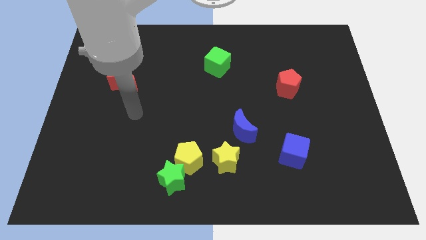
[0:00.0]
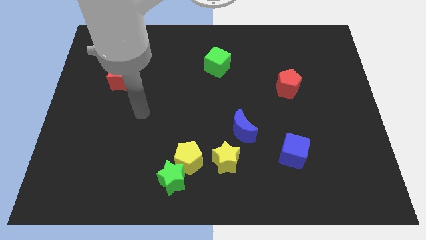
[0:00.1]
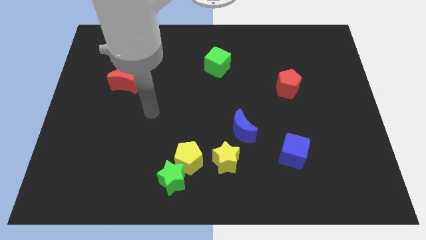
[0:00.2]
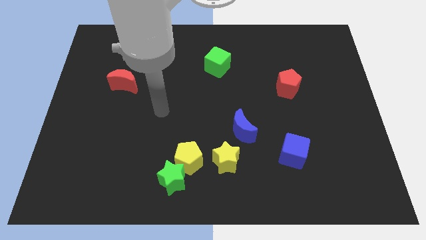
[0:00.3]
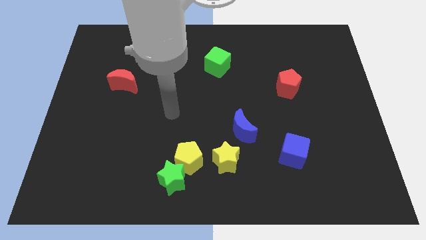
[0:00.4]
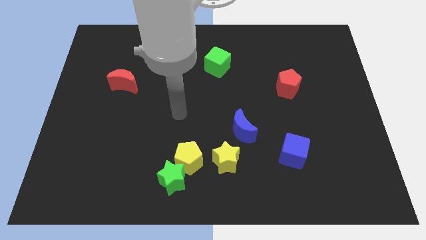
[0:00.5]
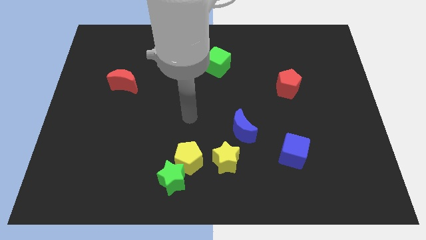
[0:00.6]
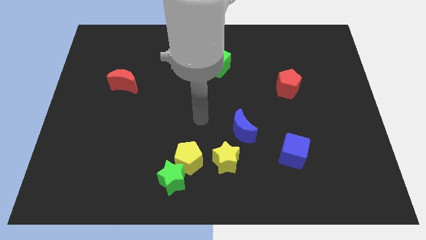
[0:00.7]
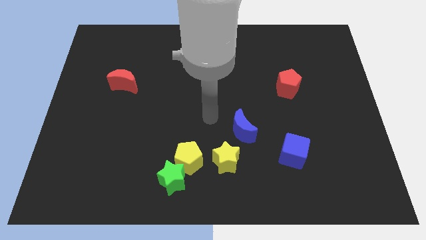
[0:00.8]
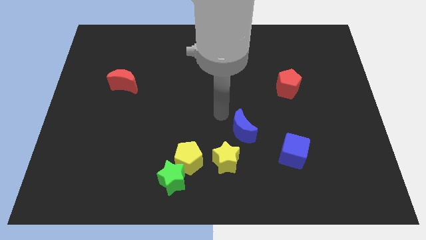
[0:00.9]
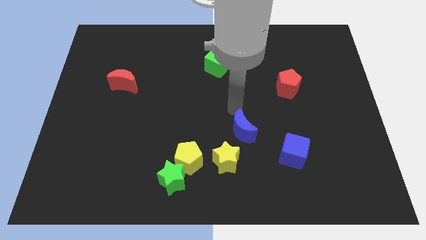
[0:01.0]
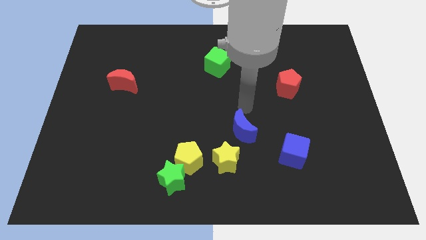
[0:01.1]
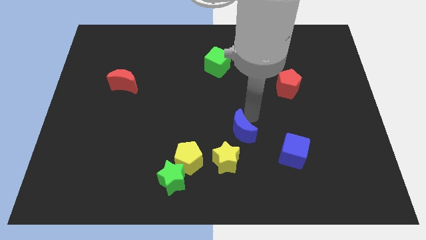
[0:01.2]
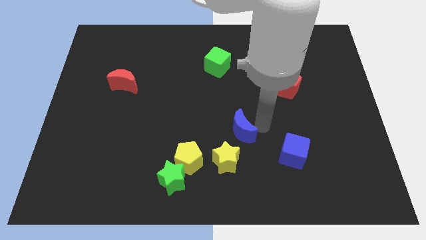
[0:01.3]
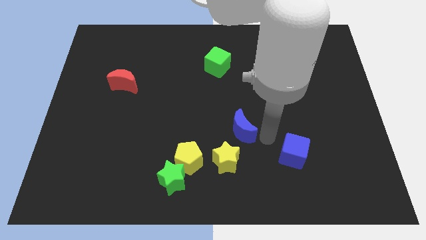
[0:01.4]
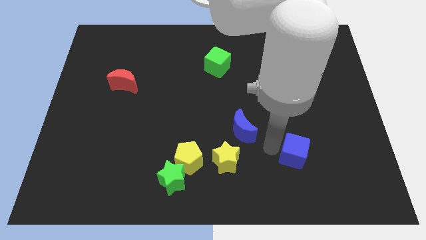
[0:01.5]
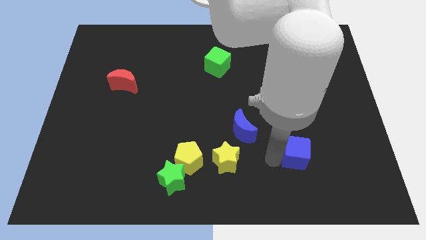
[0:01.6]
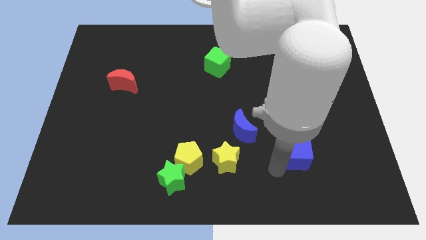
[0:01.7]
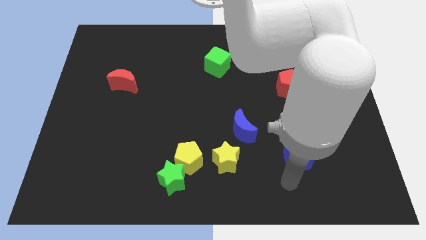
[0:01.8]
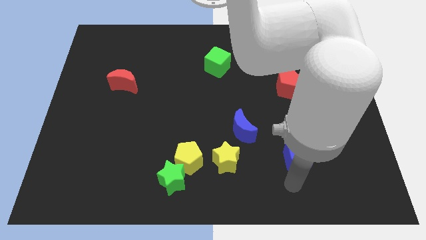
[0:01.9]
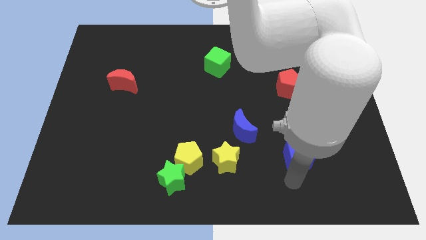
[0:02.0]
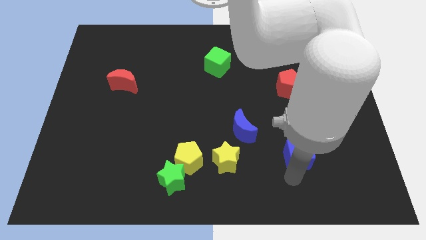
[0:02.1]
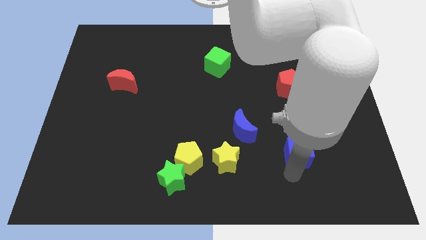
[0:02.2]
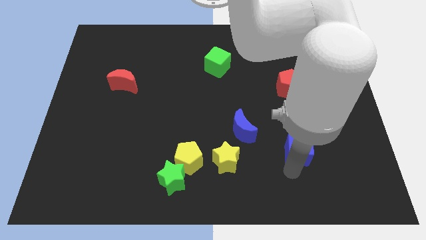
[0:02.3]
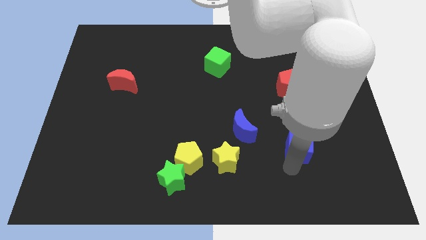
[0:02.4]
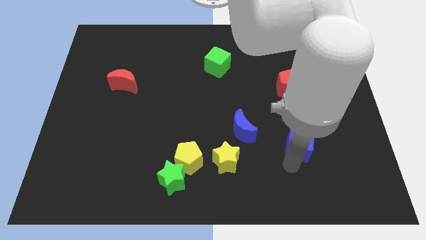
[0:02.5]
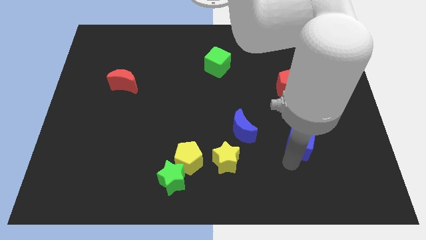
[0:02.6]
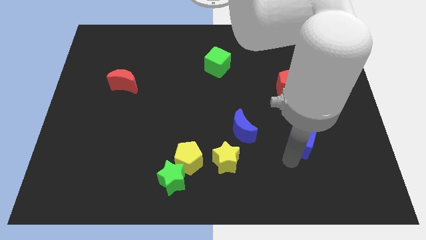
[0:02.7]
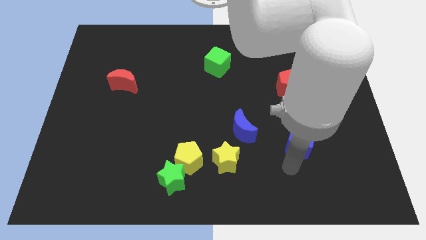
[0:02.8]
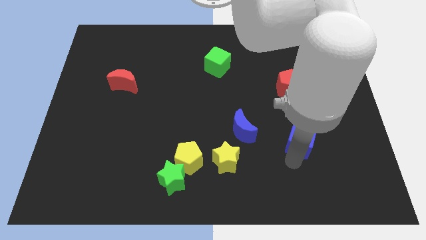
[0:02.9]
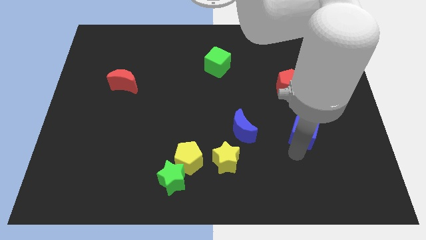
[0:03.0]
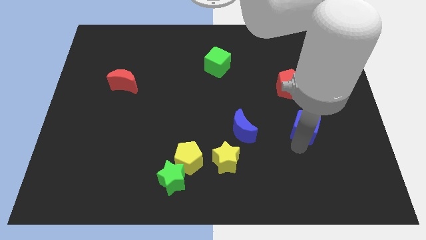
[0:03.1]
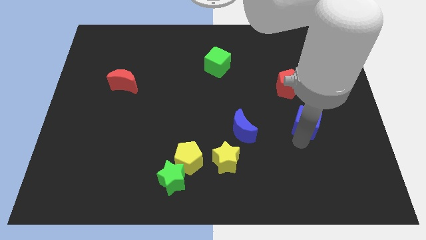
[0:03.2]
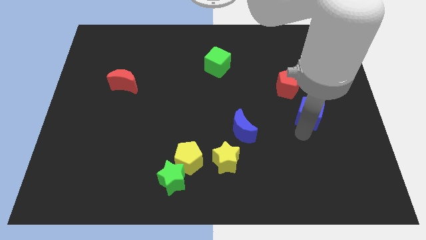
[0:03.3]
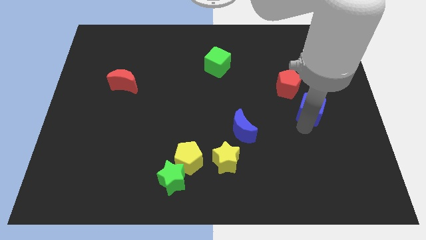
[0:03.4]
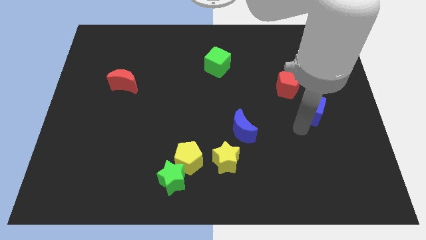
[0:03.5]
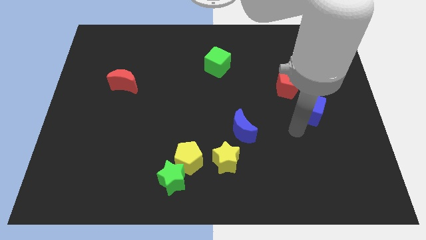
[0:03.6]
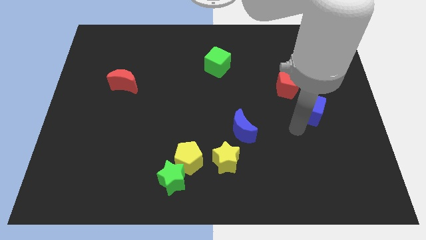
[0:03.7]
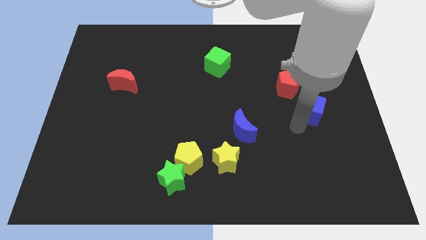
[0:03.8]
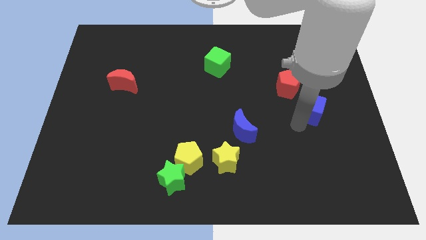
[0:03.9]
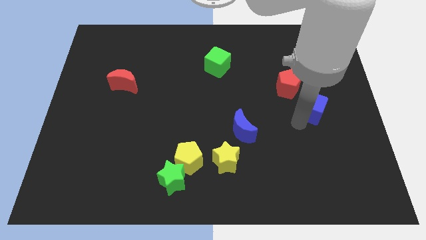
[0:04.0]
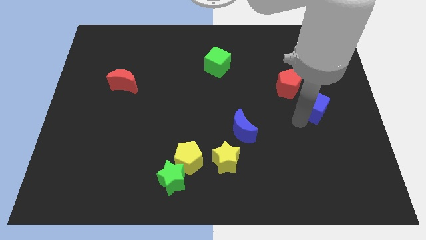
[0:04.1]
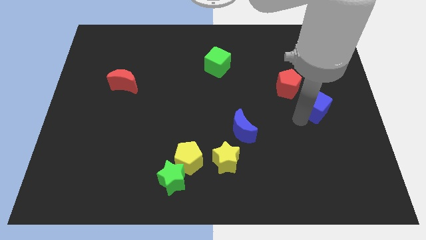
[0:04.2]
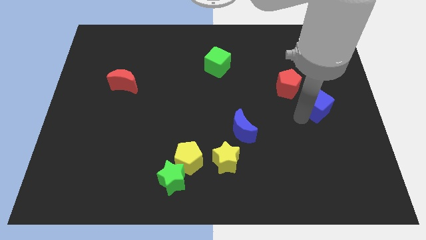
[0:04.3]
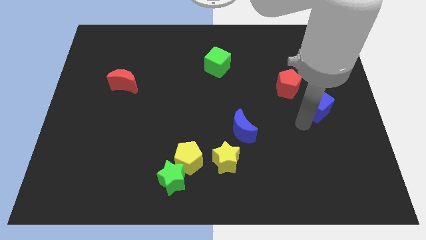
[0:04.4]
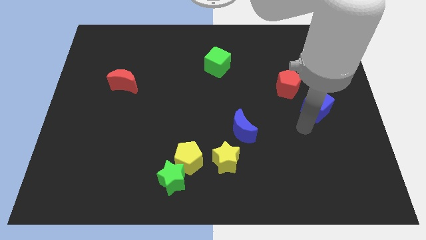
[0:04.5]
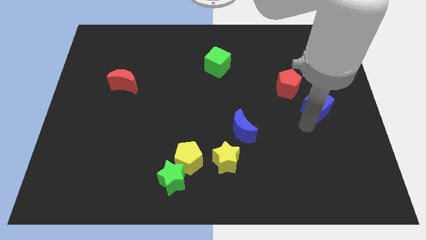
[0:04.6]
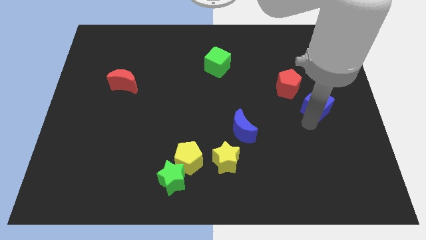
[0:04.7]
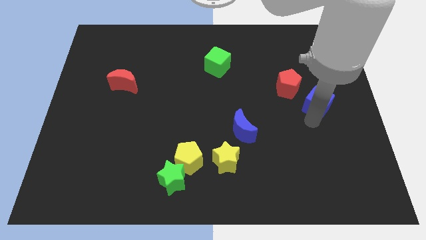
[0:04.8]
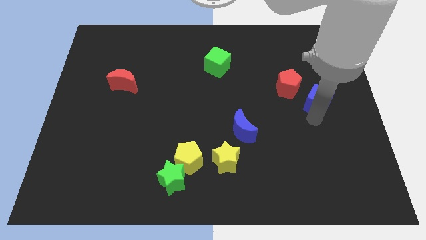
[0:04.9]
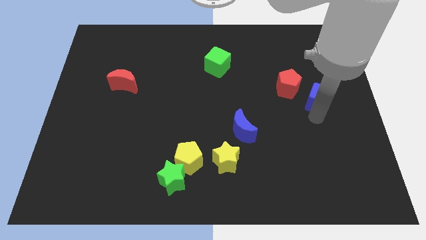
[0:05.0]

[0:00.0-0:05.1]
move the blue cube to the right of the red pentagon

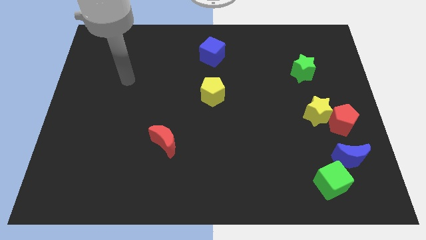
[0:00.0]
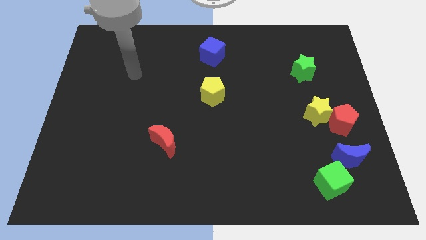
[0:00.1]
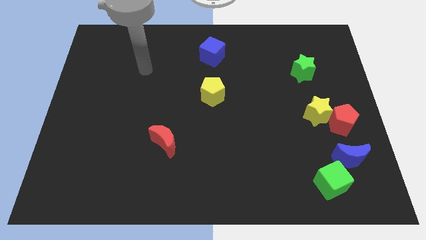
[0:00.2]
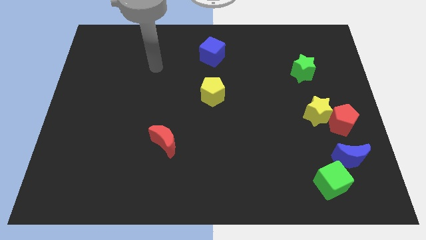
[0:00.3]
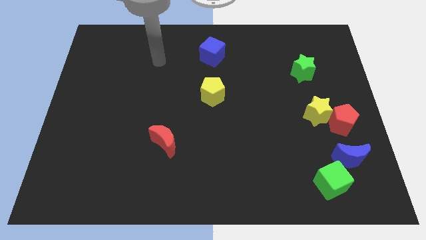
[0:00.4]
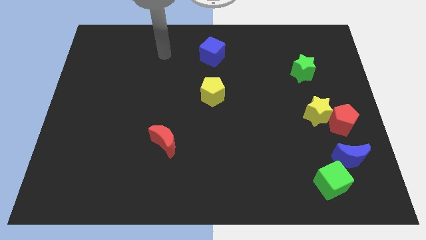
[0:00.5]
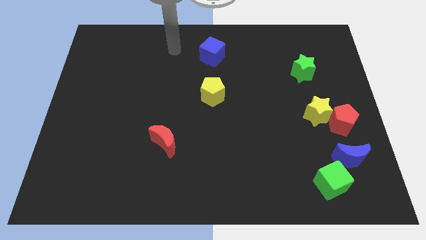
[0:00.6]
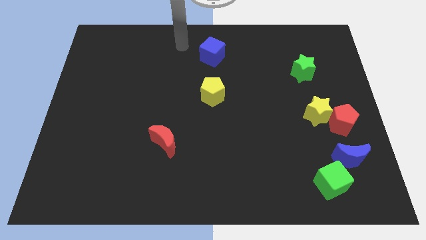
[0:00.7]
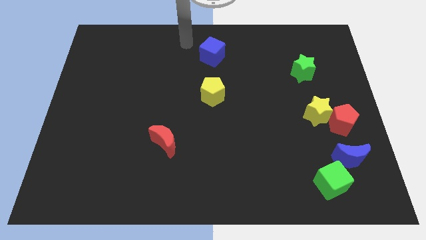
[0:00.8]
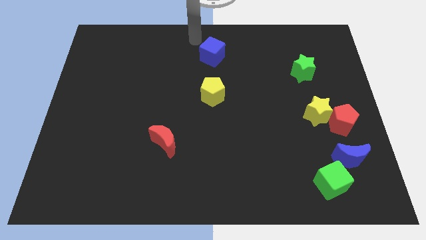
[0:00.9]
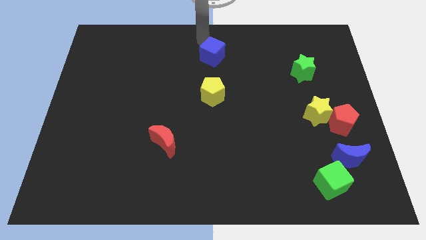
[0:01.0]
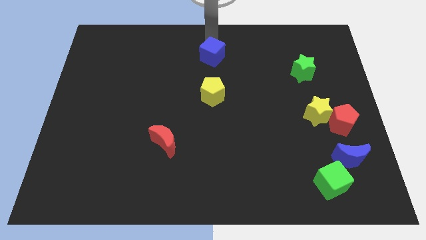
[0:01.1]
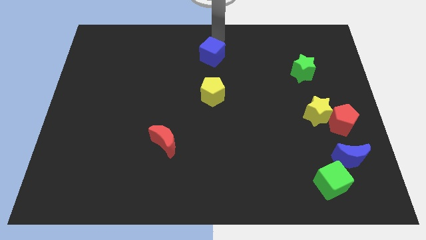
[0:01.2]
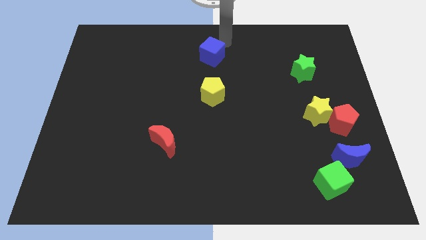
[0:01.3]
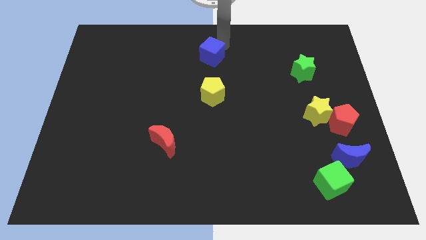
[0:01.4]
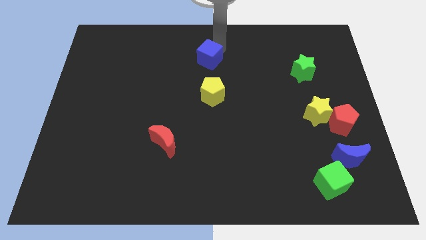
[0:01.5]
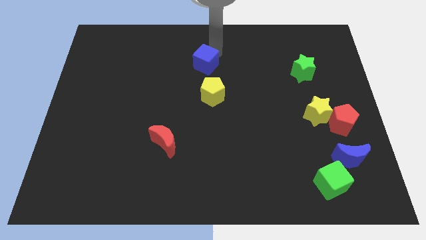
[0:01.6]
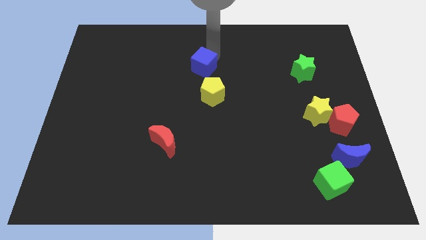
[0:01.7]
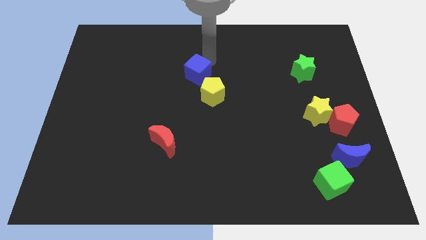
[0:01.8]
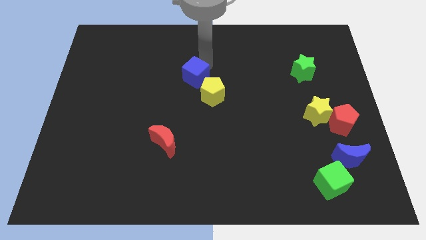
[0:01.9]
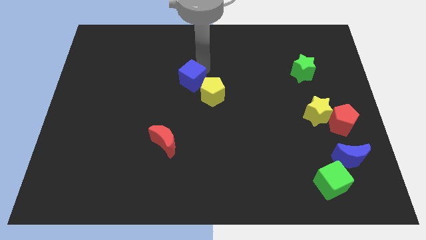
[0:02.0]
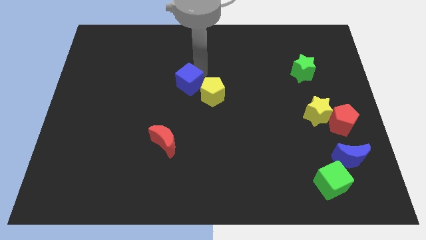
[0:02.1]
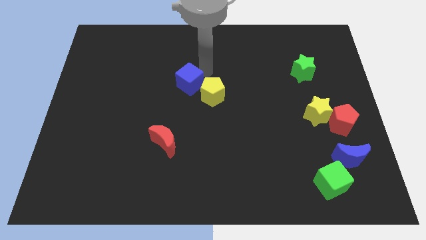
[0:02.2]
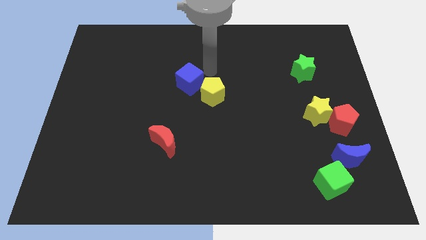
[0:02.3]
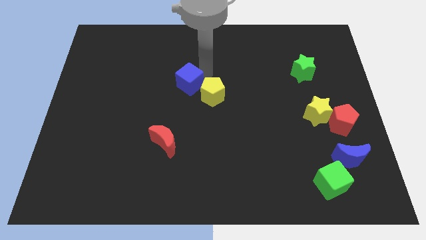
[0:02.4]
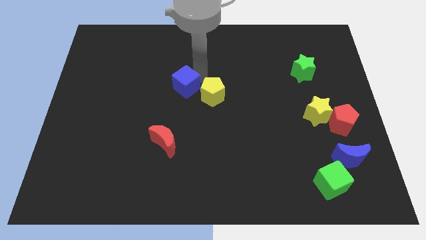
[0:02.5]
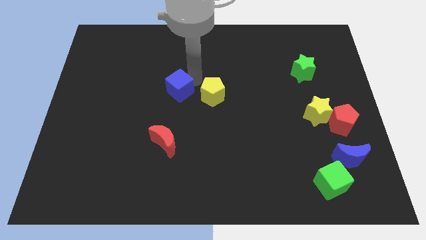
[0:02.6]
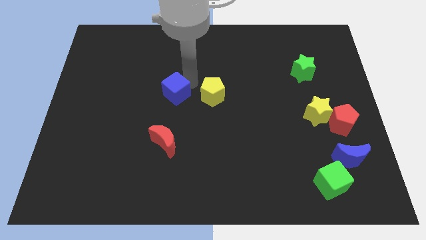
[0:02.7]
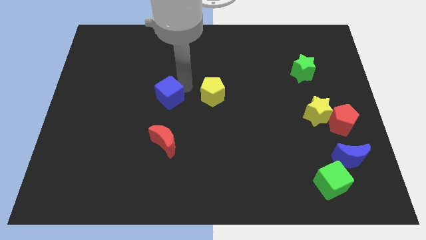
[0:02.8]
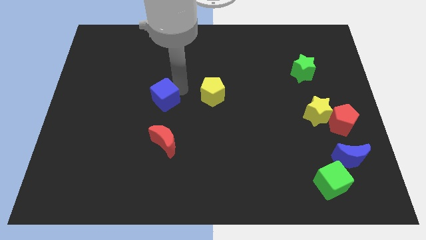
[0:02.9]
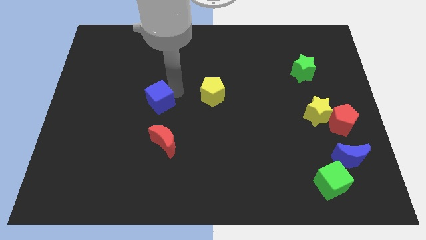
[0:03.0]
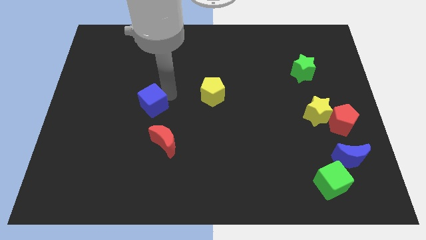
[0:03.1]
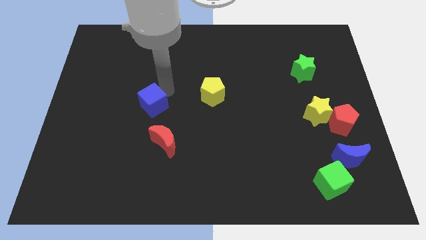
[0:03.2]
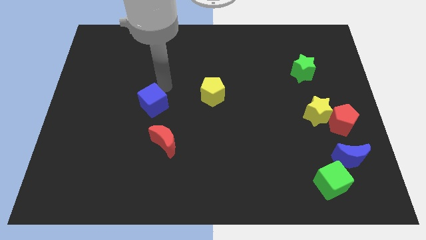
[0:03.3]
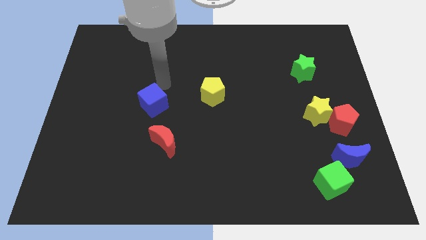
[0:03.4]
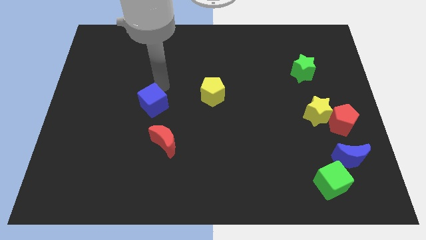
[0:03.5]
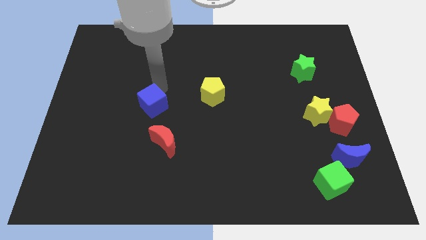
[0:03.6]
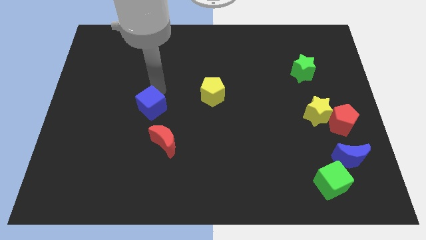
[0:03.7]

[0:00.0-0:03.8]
put the blue cube diagonally up and to the left of the red moon
